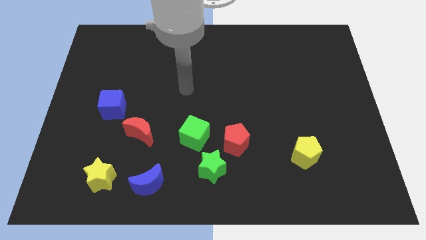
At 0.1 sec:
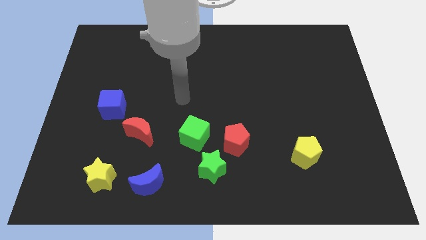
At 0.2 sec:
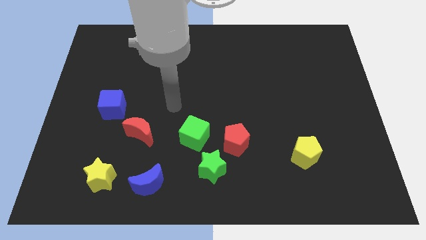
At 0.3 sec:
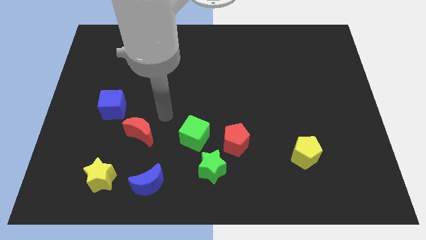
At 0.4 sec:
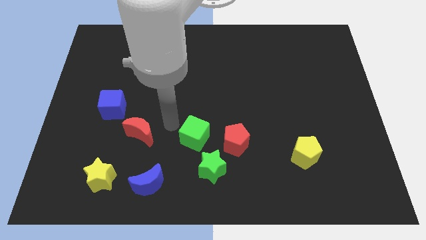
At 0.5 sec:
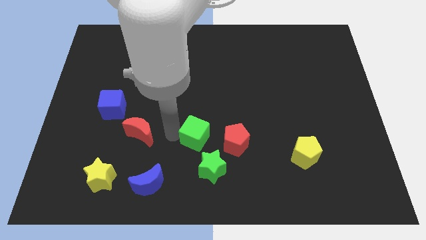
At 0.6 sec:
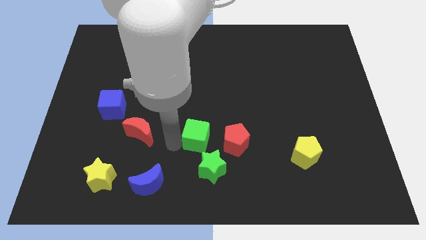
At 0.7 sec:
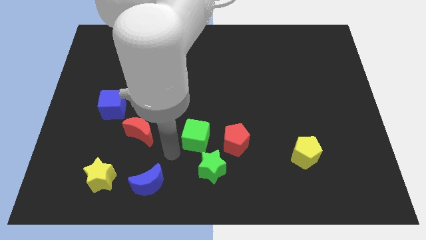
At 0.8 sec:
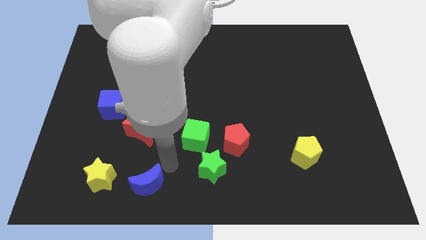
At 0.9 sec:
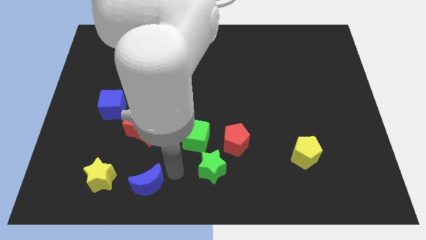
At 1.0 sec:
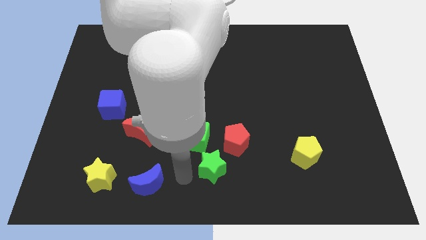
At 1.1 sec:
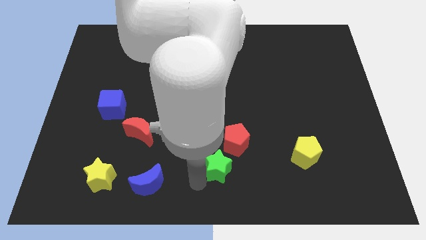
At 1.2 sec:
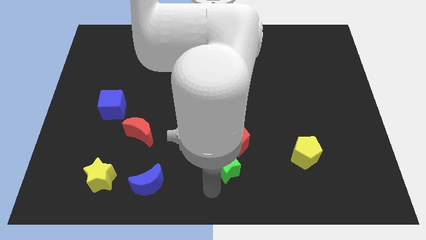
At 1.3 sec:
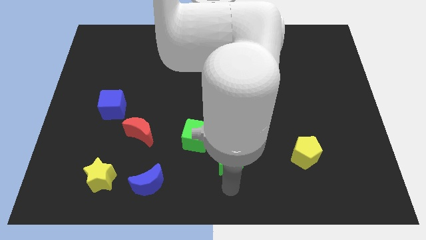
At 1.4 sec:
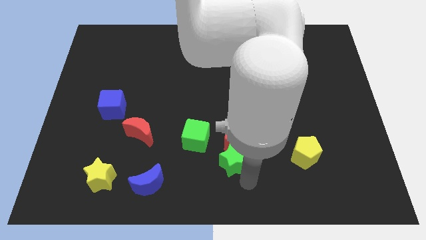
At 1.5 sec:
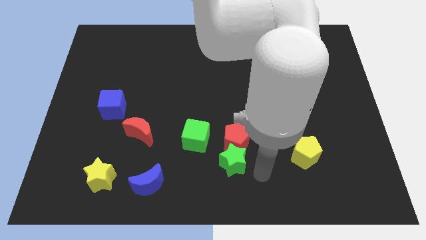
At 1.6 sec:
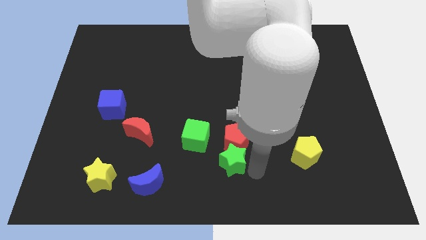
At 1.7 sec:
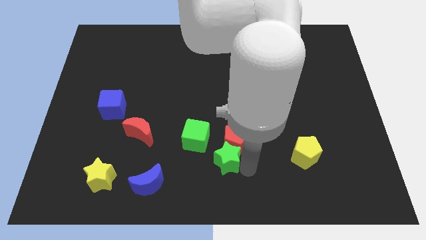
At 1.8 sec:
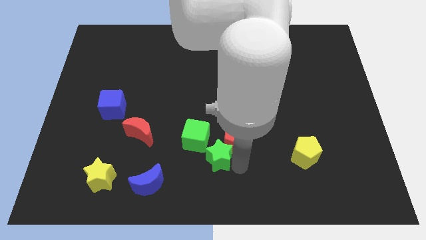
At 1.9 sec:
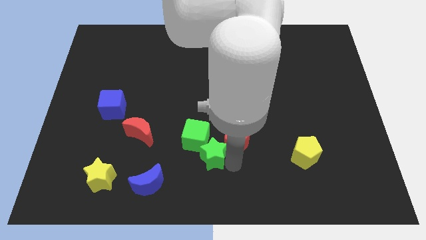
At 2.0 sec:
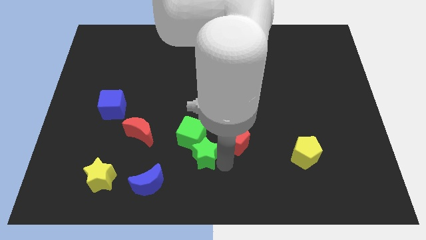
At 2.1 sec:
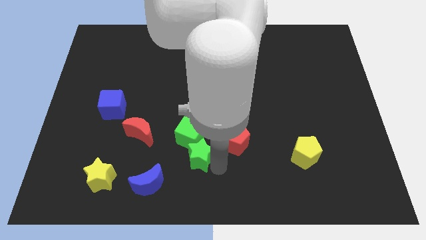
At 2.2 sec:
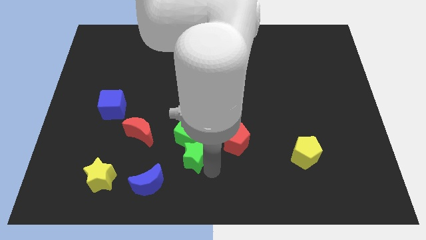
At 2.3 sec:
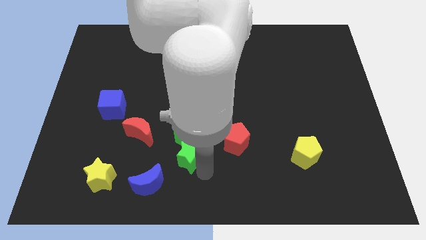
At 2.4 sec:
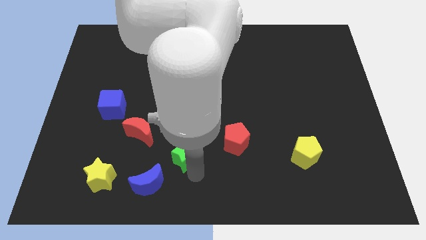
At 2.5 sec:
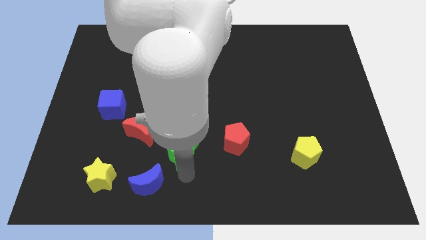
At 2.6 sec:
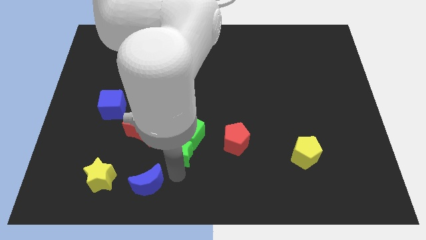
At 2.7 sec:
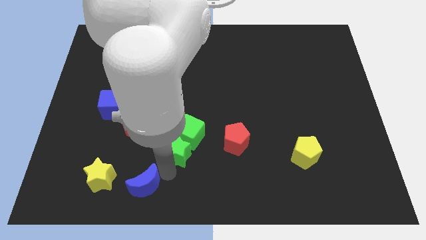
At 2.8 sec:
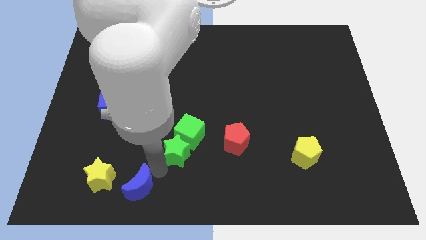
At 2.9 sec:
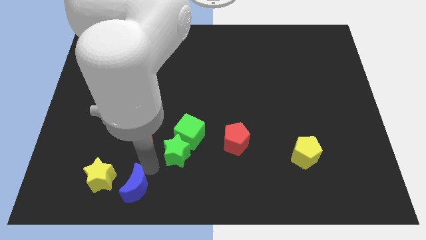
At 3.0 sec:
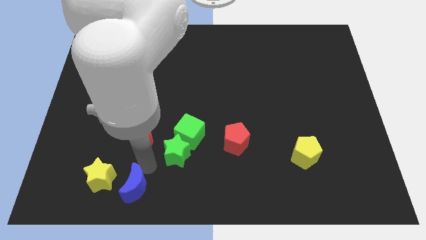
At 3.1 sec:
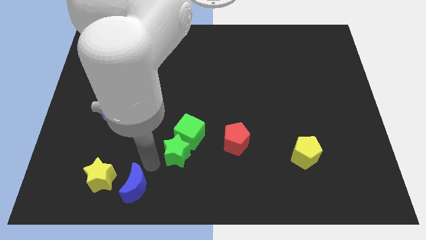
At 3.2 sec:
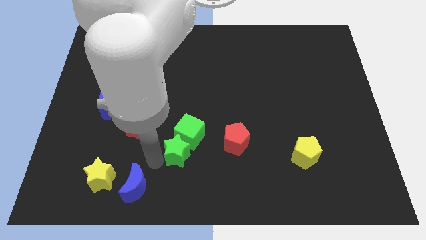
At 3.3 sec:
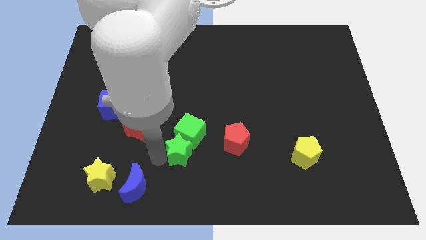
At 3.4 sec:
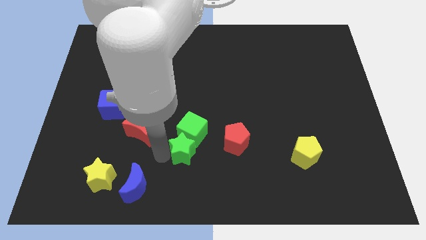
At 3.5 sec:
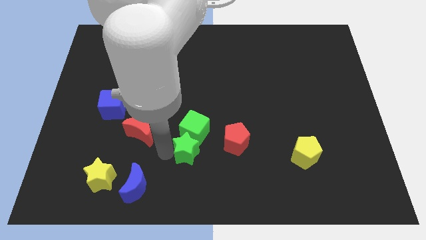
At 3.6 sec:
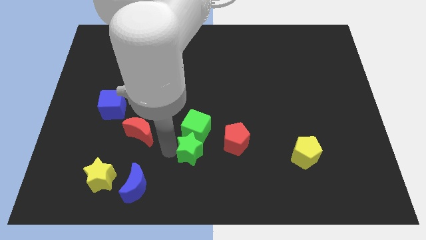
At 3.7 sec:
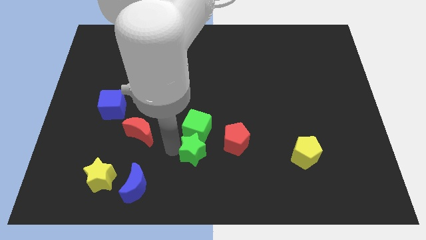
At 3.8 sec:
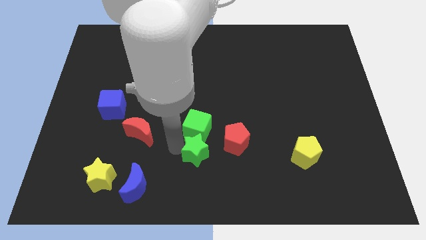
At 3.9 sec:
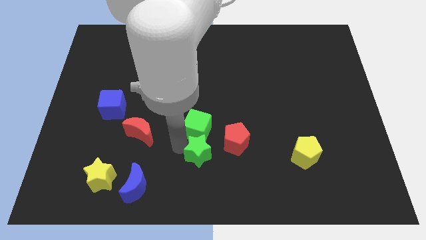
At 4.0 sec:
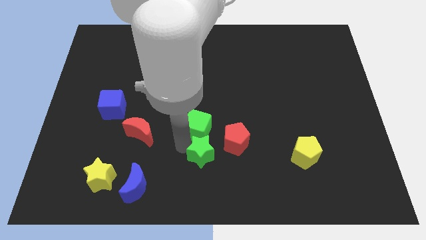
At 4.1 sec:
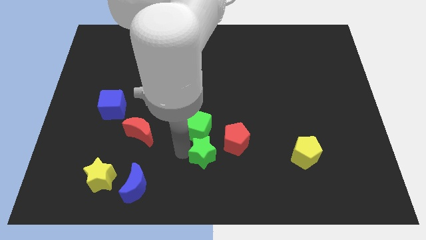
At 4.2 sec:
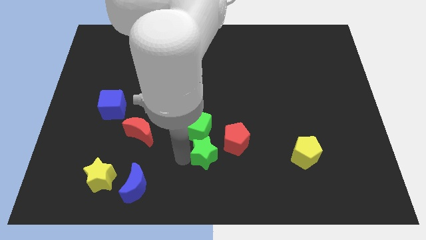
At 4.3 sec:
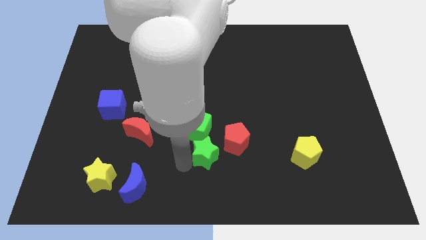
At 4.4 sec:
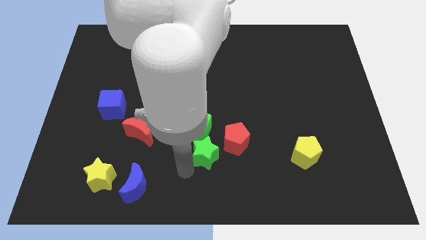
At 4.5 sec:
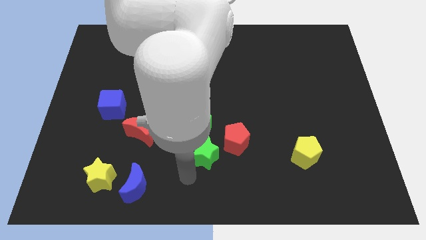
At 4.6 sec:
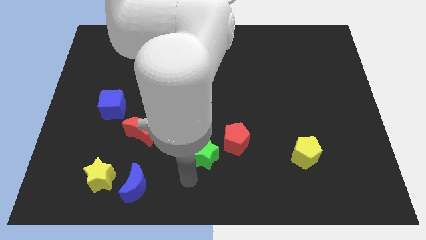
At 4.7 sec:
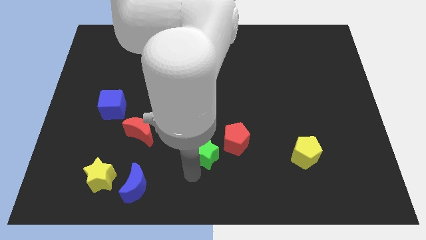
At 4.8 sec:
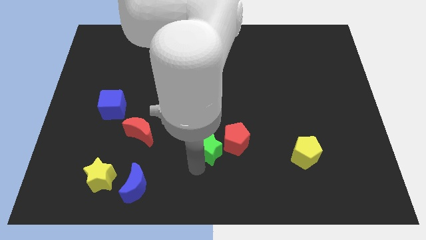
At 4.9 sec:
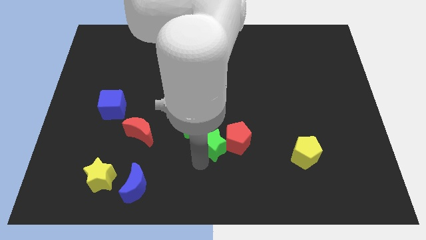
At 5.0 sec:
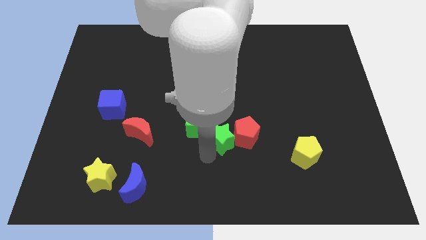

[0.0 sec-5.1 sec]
slide the green star a little upwards

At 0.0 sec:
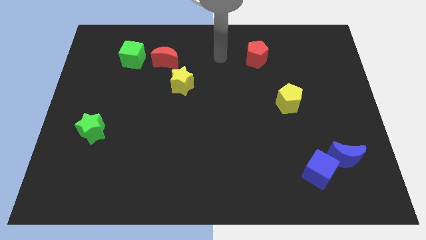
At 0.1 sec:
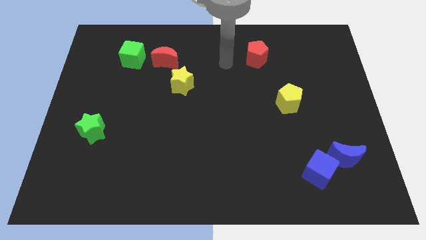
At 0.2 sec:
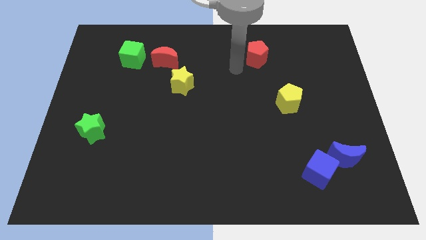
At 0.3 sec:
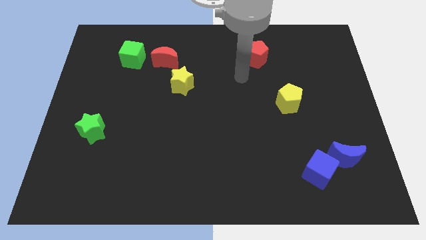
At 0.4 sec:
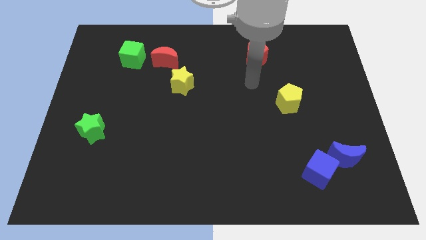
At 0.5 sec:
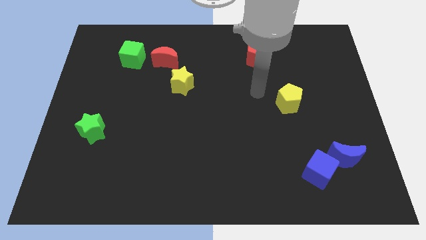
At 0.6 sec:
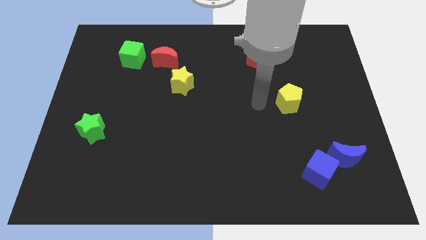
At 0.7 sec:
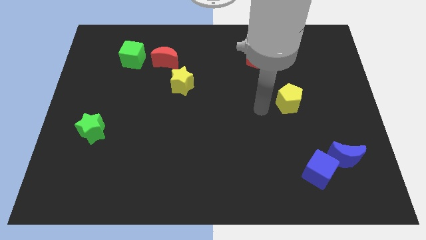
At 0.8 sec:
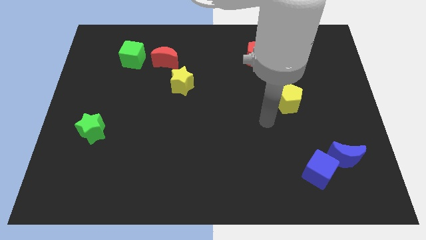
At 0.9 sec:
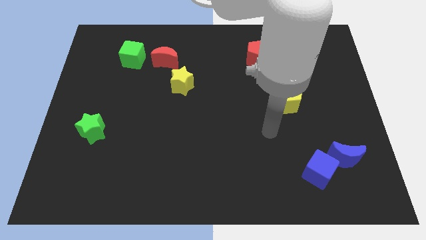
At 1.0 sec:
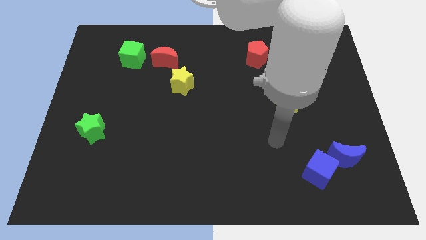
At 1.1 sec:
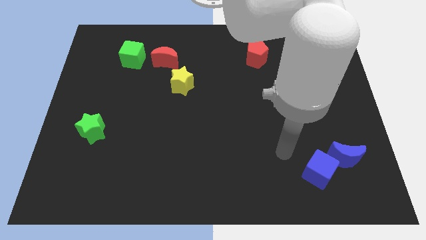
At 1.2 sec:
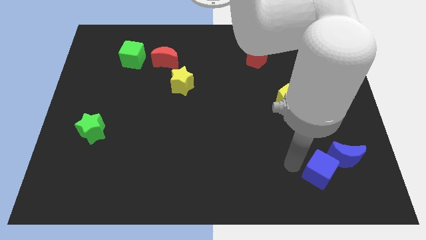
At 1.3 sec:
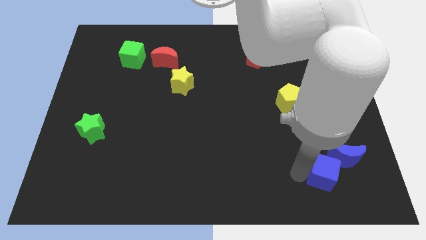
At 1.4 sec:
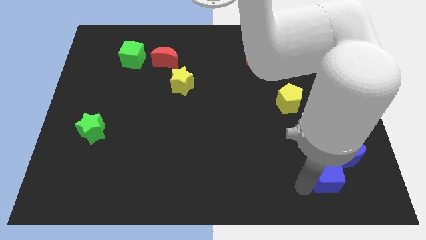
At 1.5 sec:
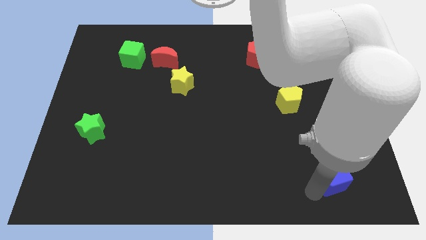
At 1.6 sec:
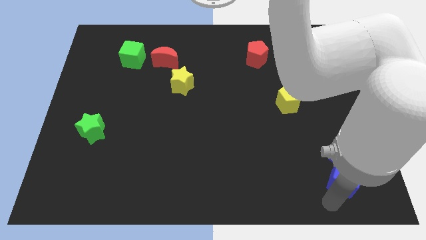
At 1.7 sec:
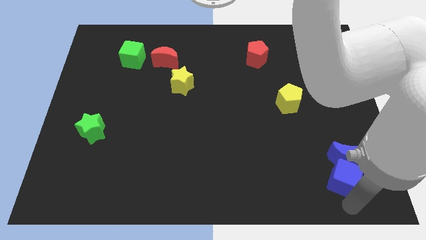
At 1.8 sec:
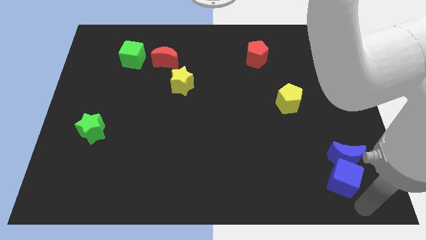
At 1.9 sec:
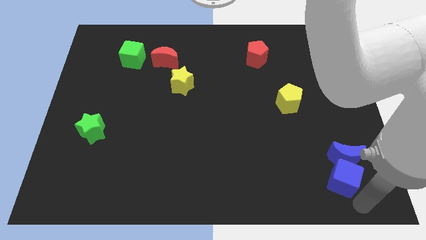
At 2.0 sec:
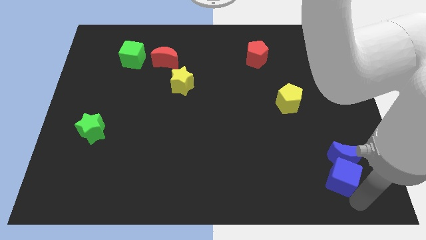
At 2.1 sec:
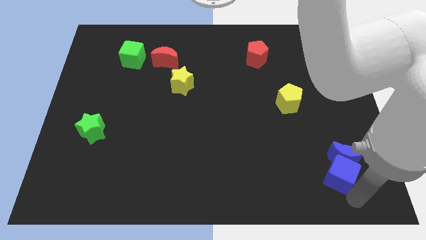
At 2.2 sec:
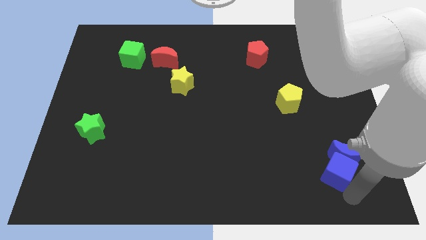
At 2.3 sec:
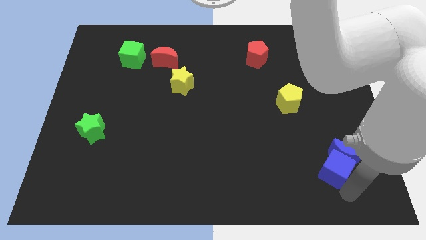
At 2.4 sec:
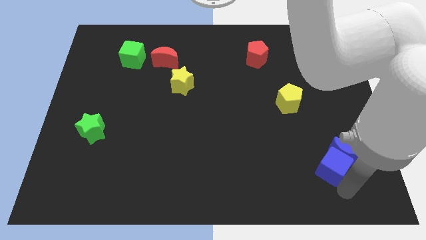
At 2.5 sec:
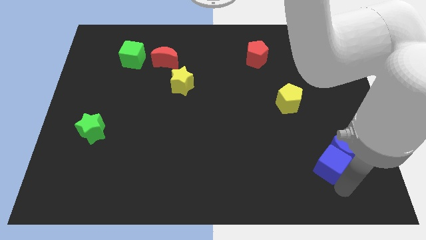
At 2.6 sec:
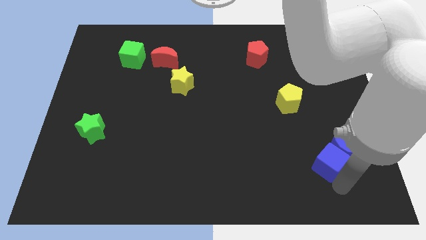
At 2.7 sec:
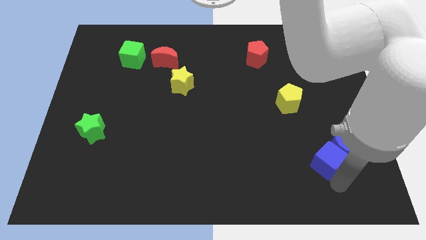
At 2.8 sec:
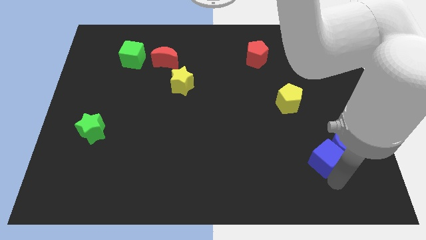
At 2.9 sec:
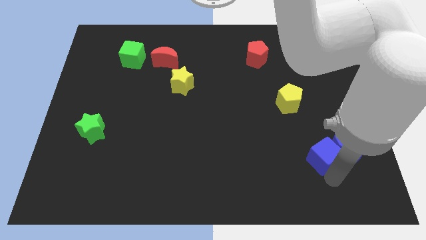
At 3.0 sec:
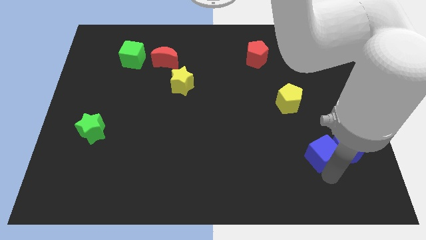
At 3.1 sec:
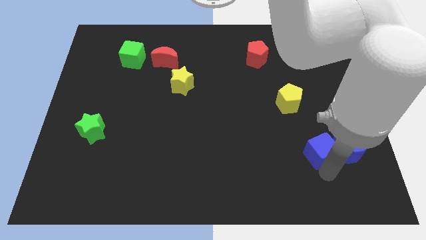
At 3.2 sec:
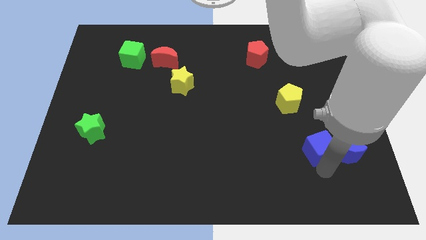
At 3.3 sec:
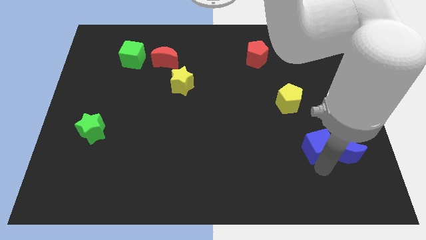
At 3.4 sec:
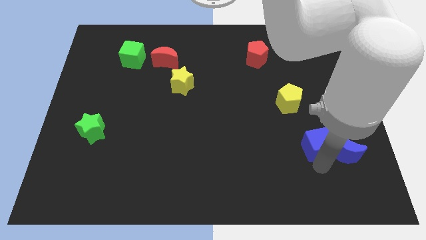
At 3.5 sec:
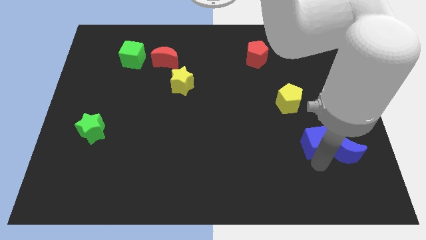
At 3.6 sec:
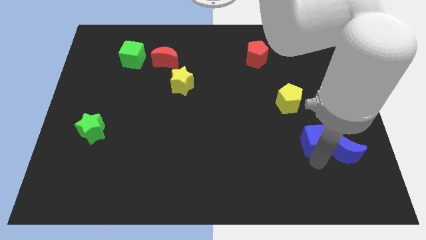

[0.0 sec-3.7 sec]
slide the blue cube up somewhat
